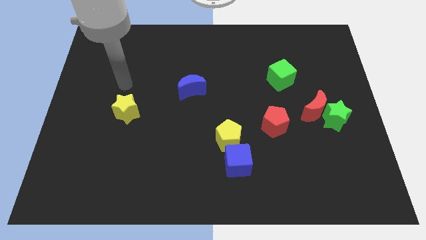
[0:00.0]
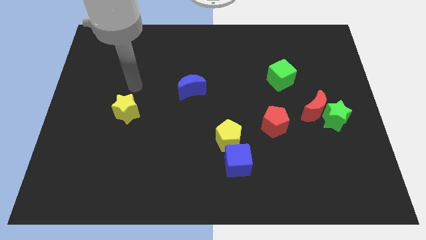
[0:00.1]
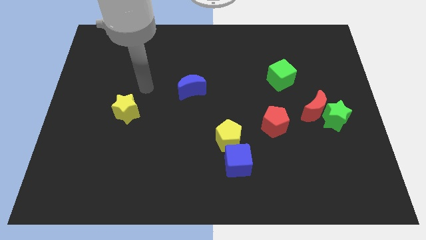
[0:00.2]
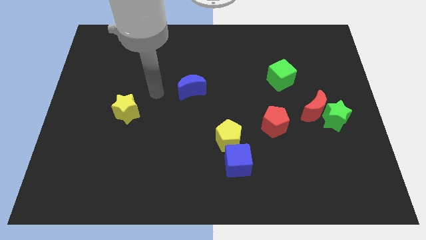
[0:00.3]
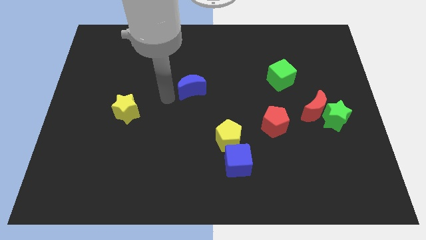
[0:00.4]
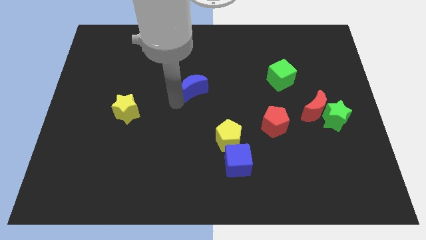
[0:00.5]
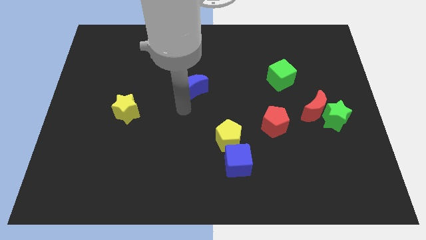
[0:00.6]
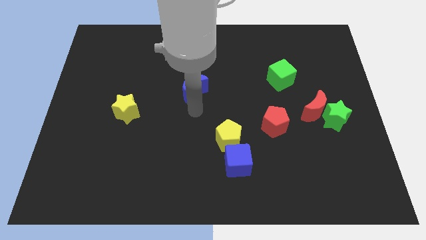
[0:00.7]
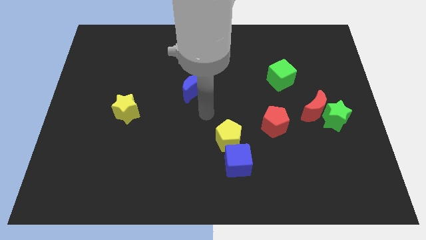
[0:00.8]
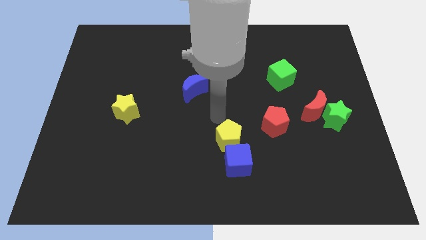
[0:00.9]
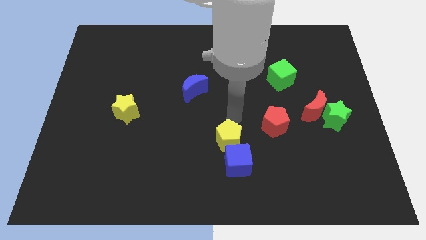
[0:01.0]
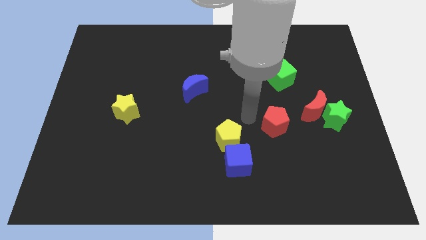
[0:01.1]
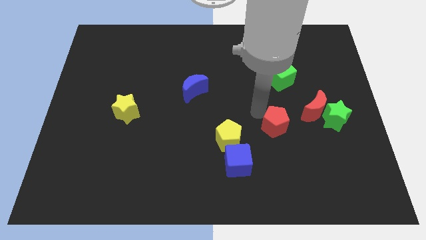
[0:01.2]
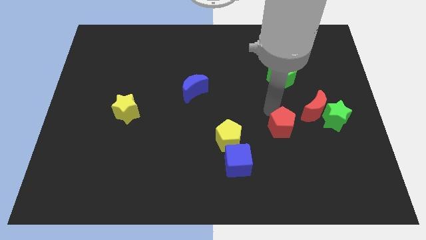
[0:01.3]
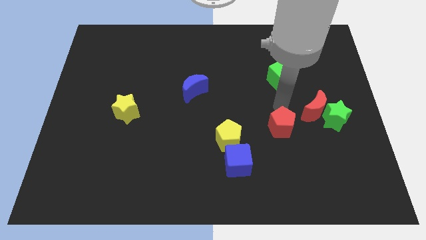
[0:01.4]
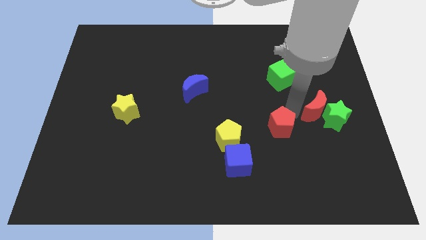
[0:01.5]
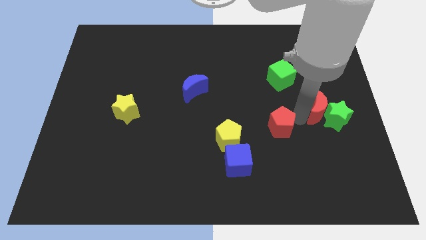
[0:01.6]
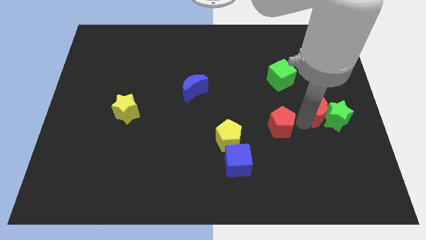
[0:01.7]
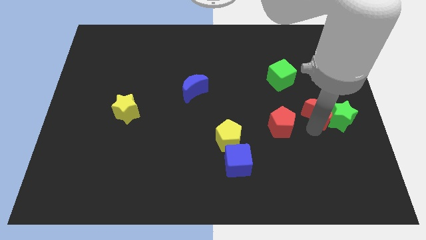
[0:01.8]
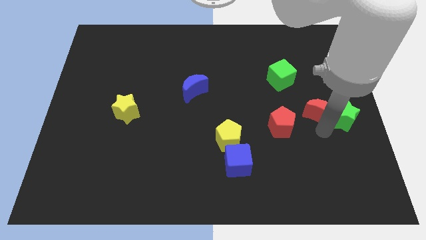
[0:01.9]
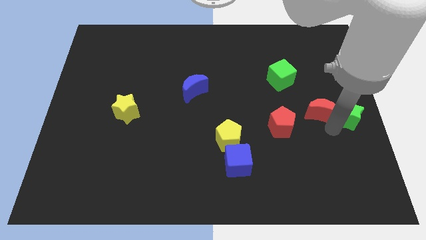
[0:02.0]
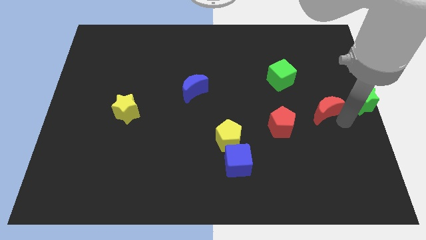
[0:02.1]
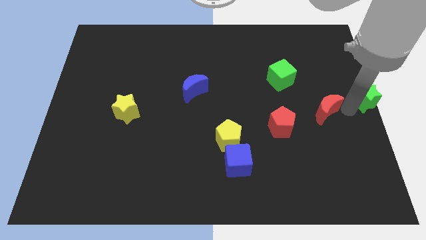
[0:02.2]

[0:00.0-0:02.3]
move the red moon away from the green star

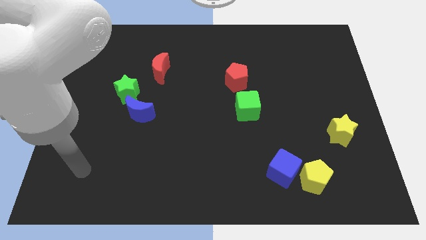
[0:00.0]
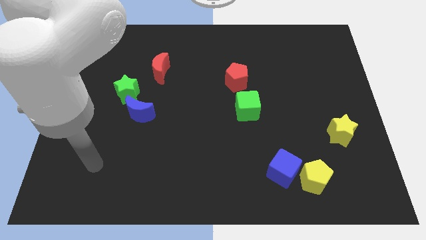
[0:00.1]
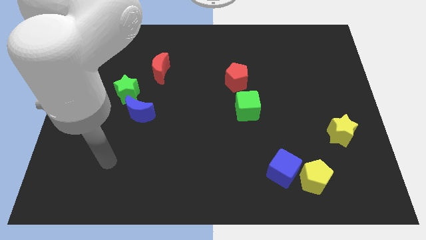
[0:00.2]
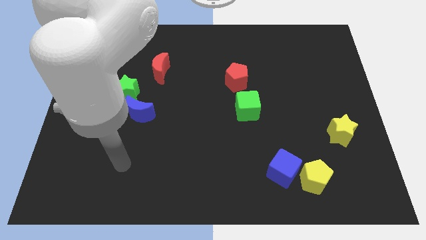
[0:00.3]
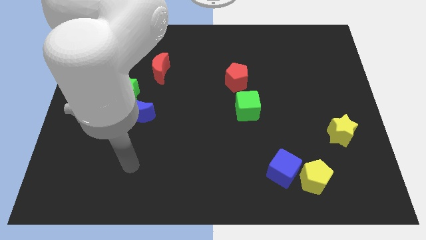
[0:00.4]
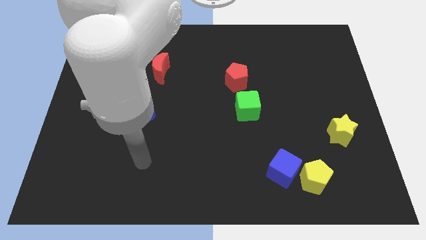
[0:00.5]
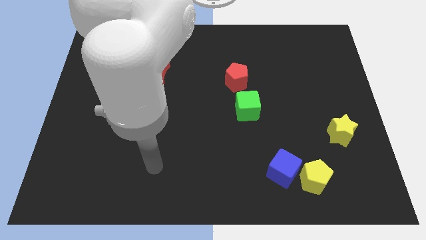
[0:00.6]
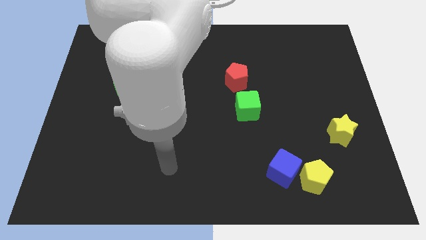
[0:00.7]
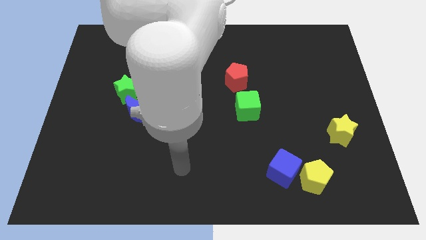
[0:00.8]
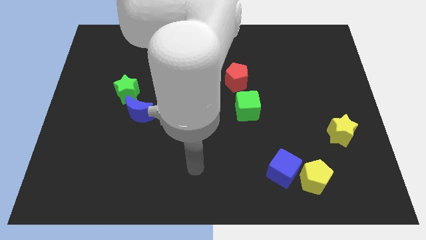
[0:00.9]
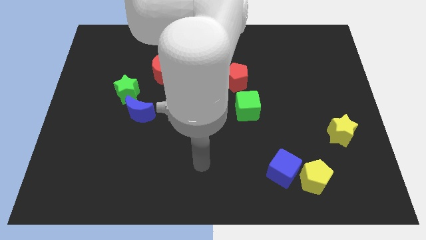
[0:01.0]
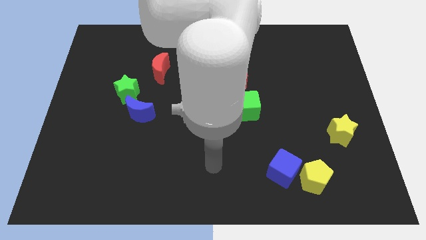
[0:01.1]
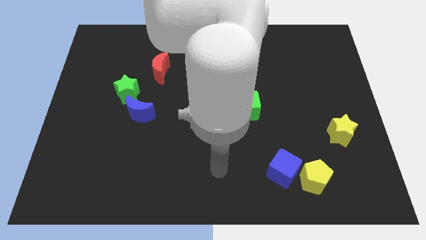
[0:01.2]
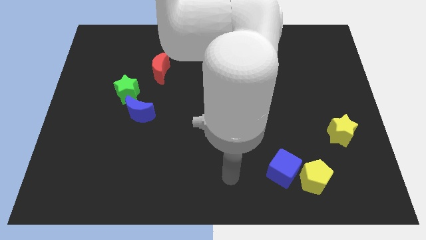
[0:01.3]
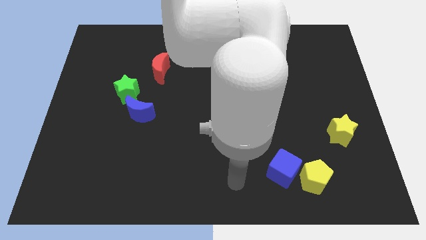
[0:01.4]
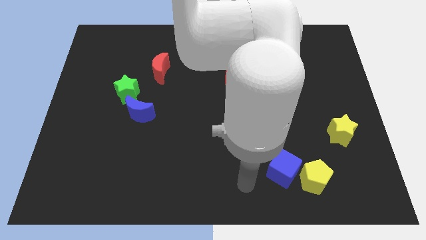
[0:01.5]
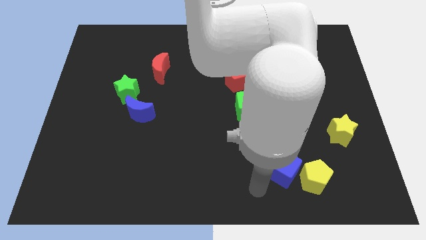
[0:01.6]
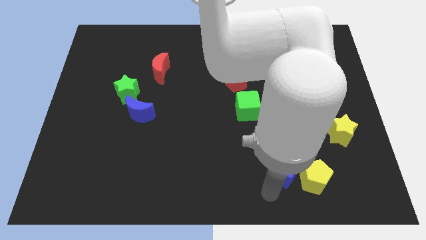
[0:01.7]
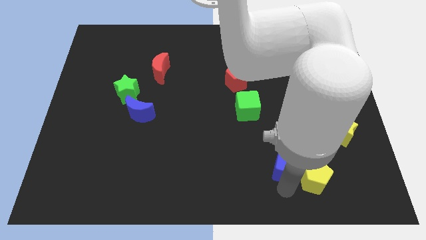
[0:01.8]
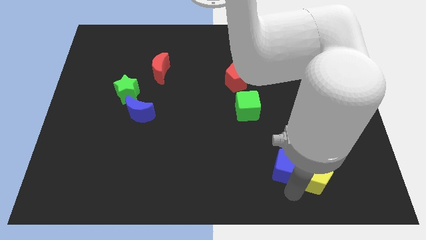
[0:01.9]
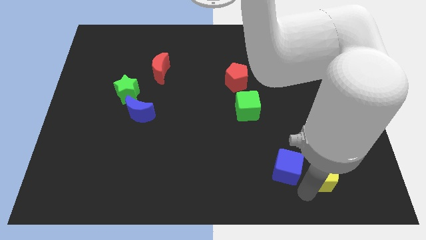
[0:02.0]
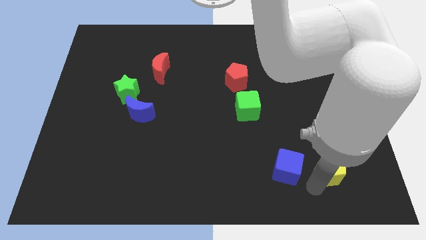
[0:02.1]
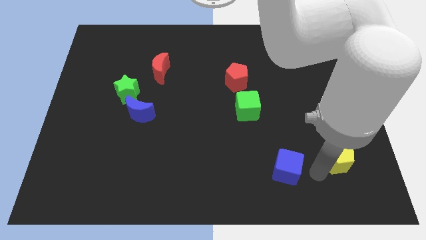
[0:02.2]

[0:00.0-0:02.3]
separate the blue cube from the yellow pentagon

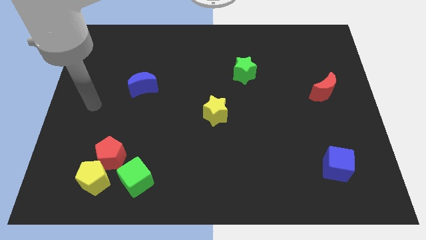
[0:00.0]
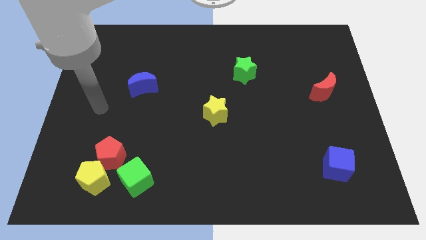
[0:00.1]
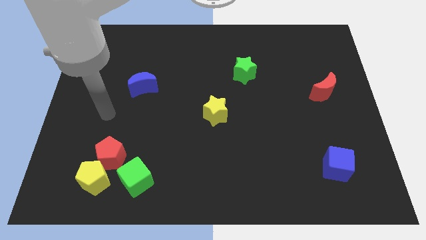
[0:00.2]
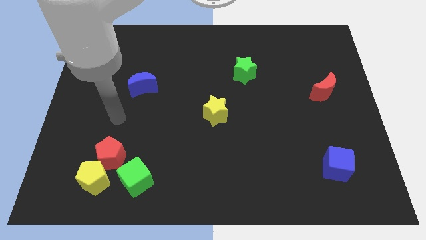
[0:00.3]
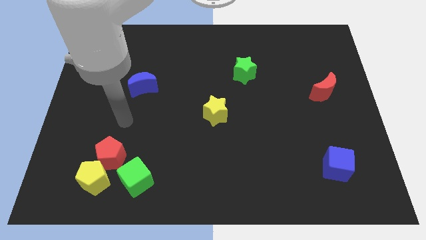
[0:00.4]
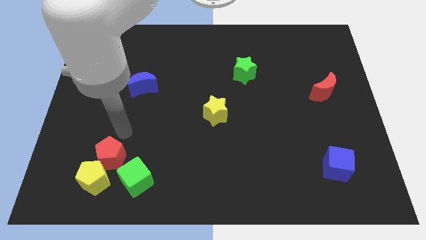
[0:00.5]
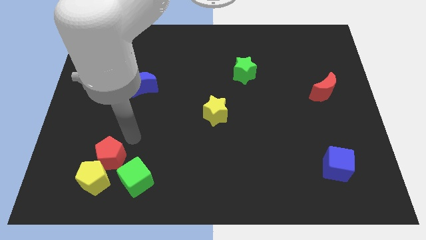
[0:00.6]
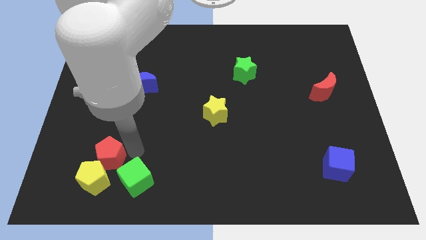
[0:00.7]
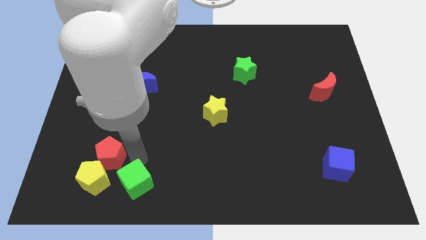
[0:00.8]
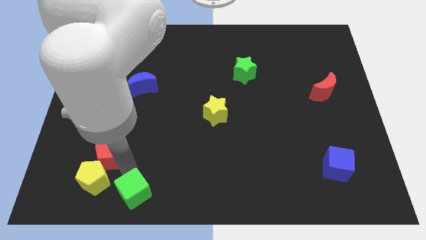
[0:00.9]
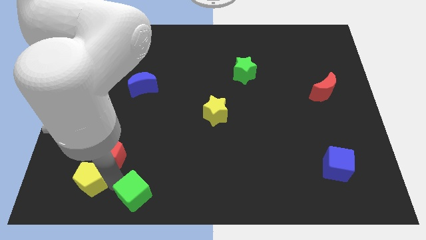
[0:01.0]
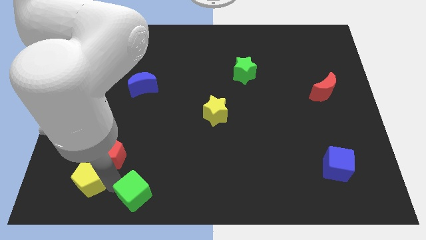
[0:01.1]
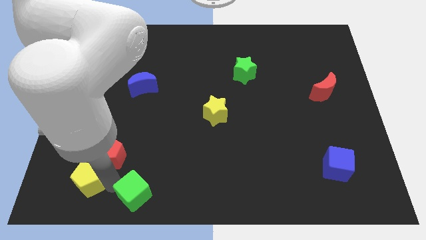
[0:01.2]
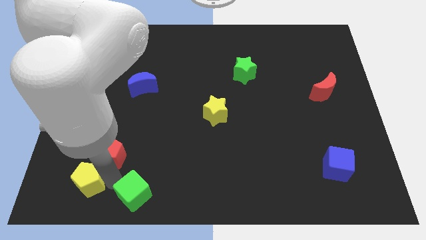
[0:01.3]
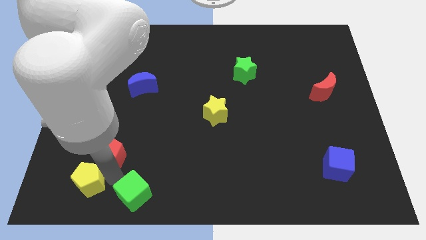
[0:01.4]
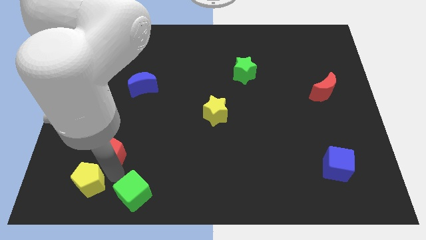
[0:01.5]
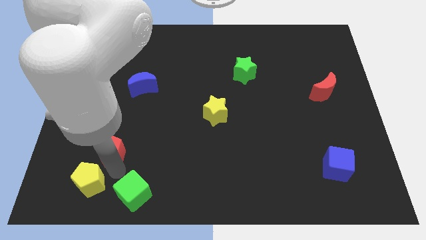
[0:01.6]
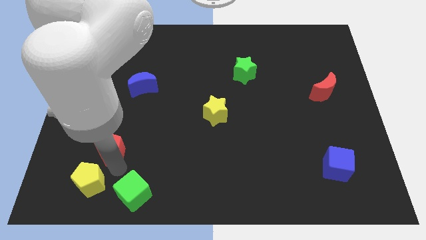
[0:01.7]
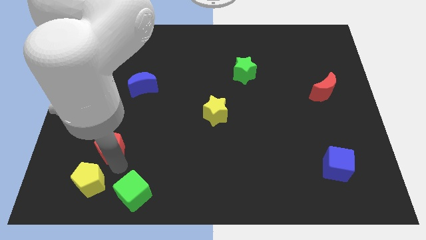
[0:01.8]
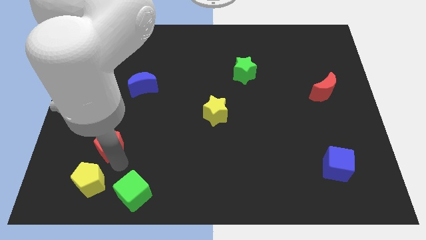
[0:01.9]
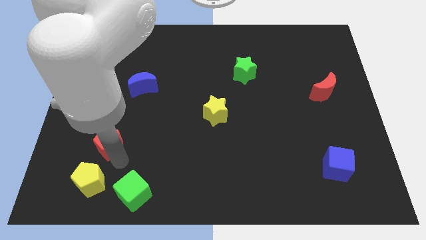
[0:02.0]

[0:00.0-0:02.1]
pull the red pentagon apart from the yellow pentagon and green cube

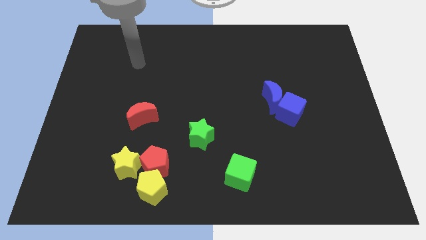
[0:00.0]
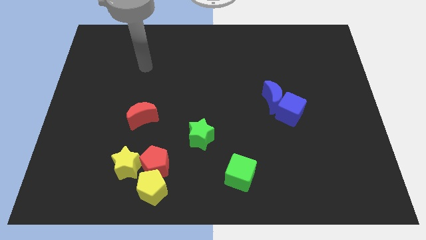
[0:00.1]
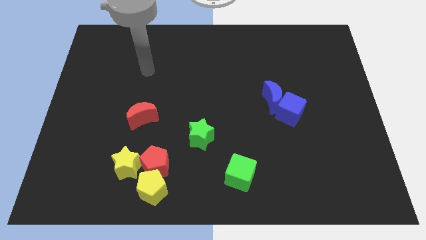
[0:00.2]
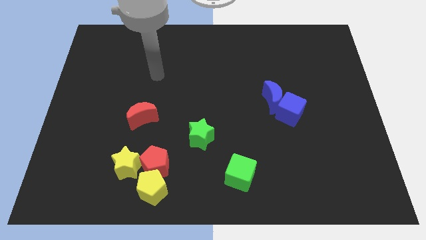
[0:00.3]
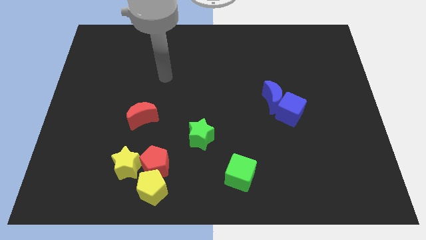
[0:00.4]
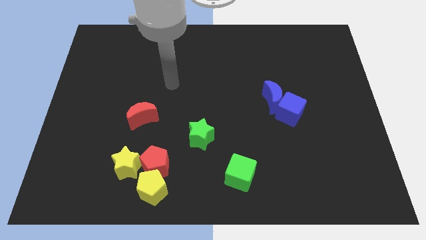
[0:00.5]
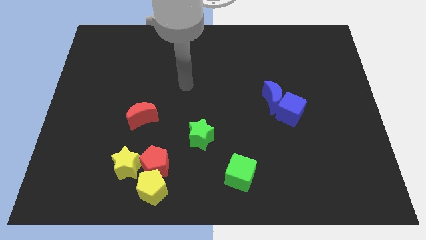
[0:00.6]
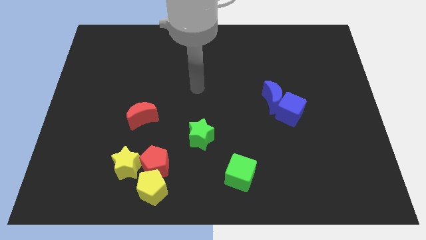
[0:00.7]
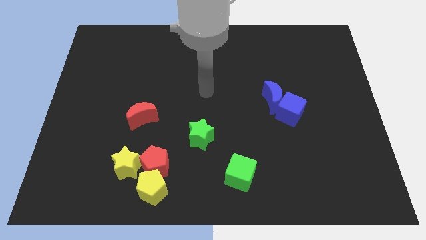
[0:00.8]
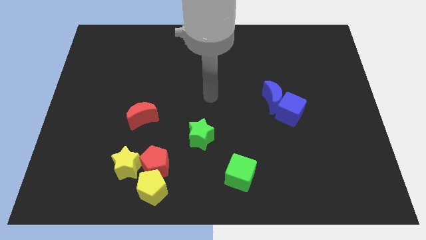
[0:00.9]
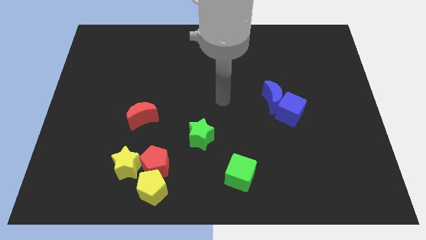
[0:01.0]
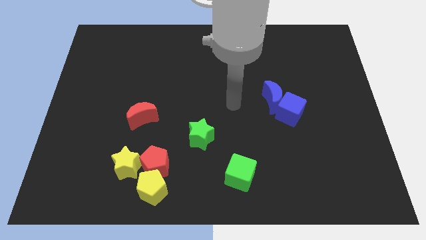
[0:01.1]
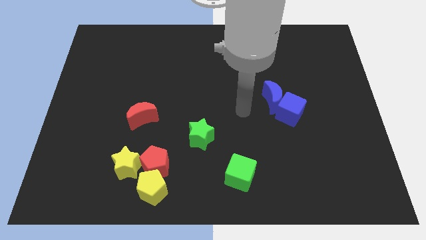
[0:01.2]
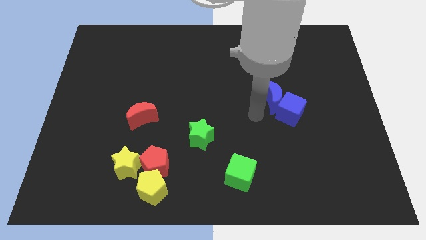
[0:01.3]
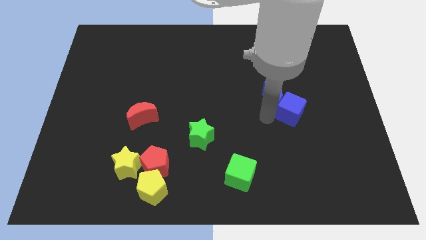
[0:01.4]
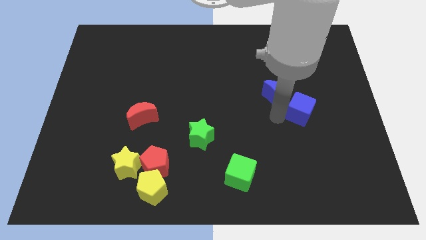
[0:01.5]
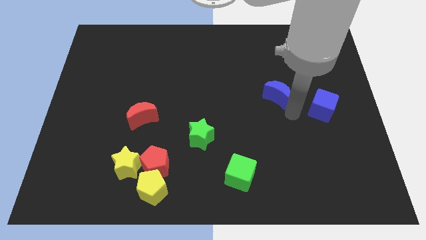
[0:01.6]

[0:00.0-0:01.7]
pull the blue moon apart from the blue cube

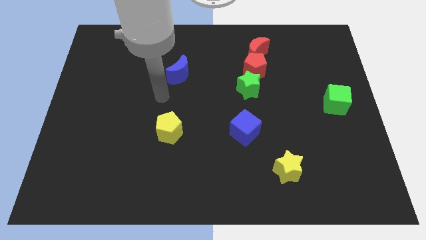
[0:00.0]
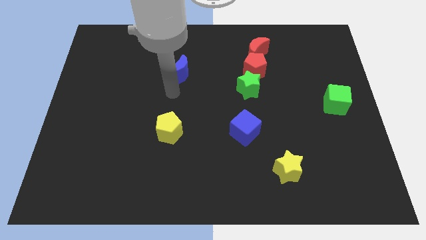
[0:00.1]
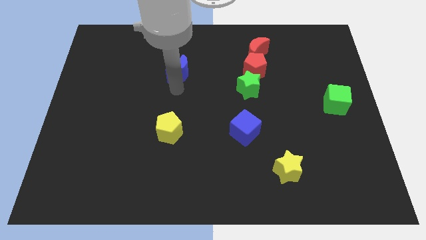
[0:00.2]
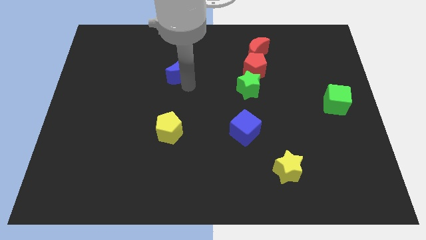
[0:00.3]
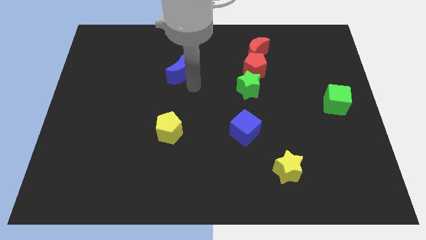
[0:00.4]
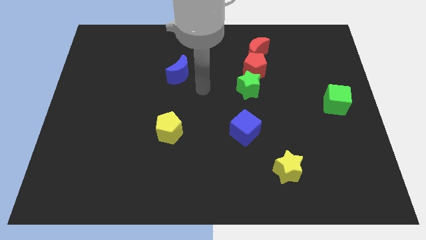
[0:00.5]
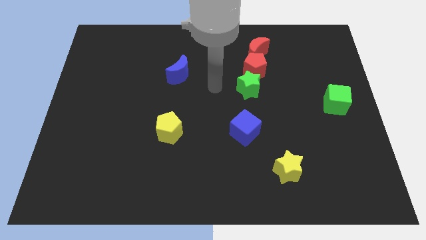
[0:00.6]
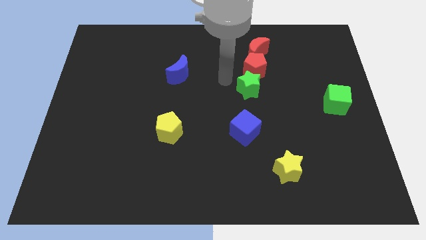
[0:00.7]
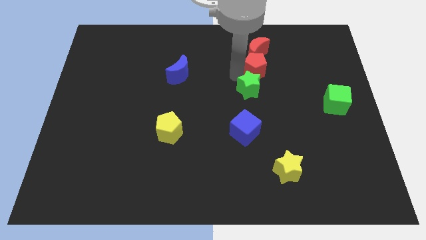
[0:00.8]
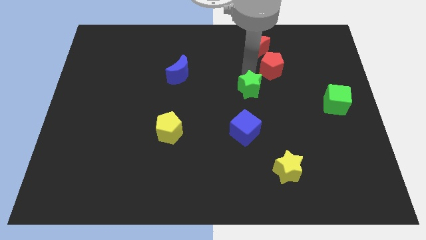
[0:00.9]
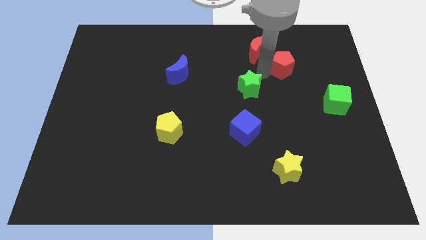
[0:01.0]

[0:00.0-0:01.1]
separate the green star from the red pentagon
